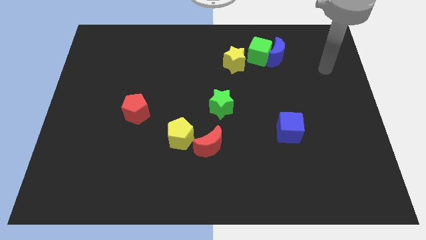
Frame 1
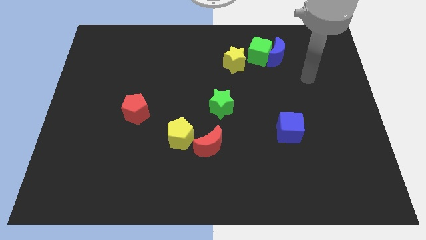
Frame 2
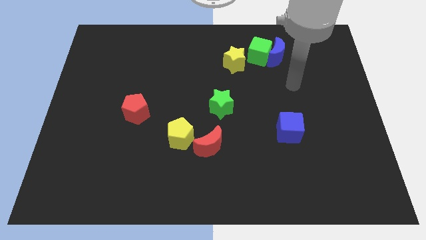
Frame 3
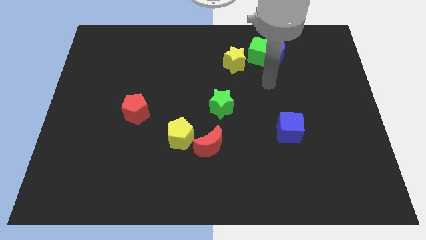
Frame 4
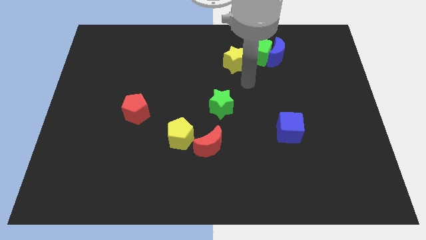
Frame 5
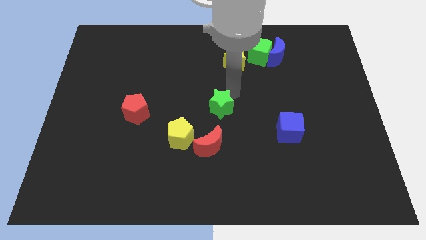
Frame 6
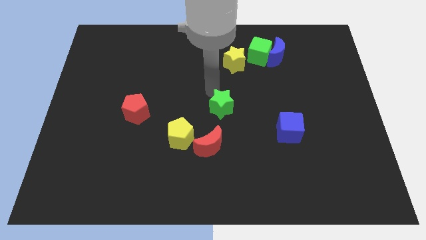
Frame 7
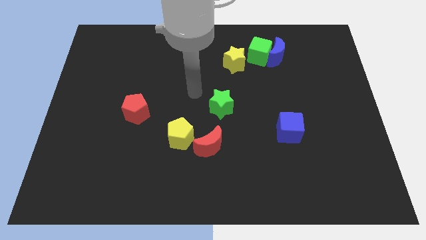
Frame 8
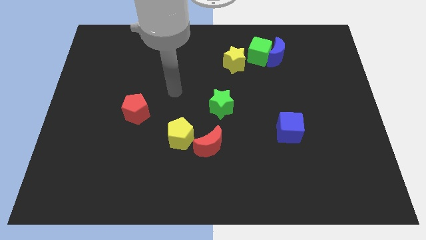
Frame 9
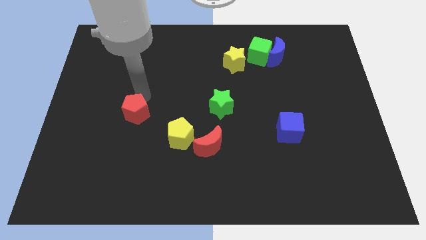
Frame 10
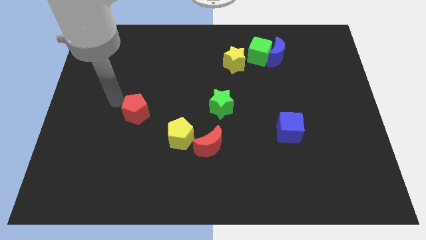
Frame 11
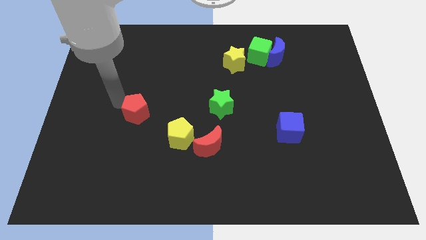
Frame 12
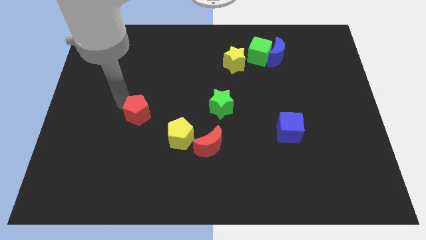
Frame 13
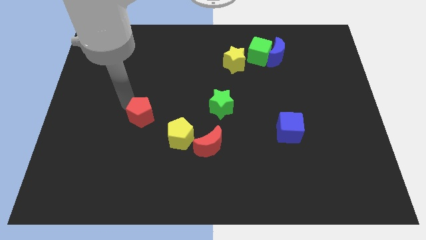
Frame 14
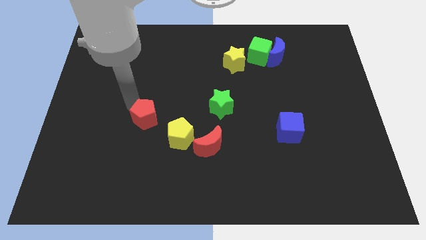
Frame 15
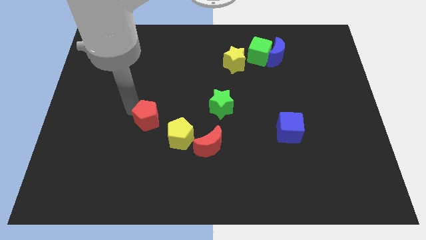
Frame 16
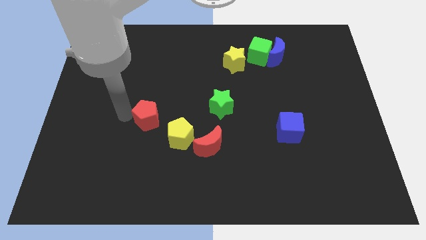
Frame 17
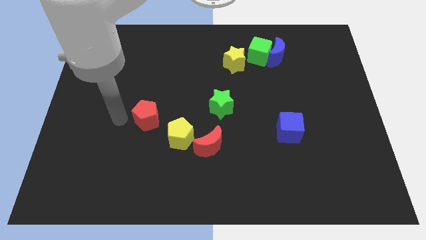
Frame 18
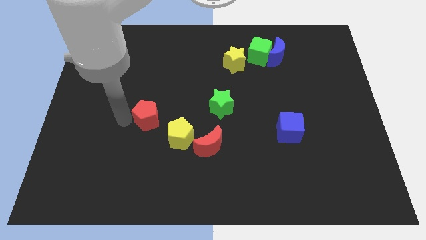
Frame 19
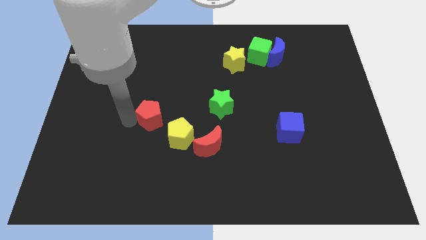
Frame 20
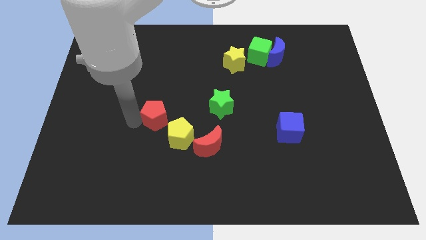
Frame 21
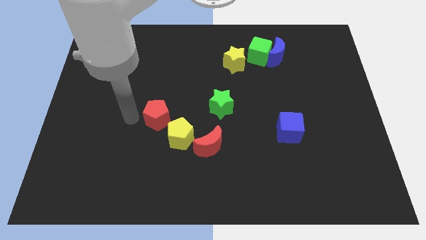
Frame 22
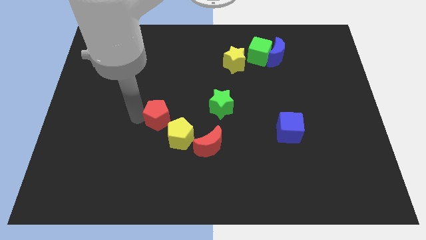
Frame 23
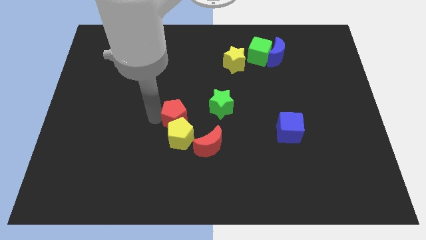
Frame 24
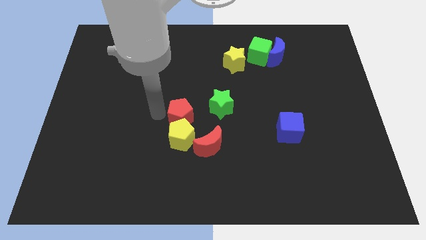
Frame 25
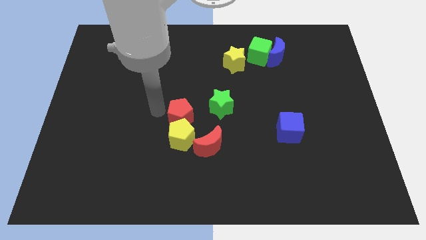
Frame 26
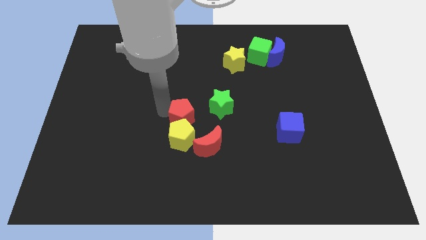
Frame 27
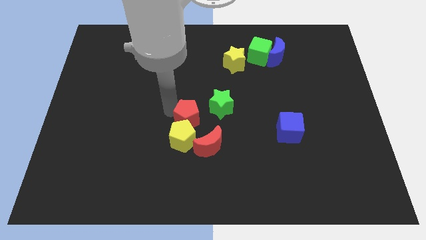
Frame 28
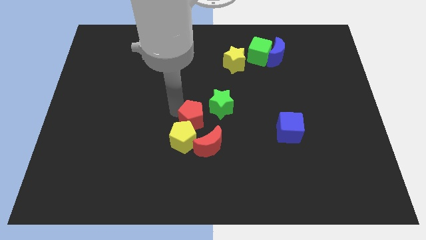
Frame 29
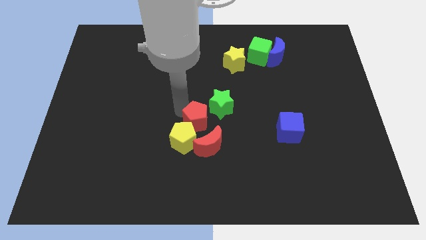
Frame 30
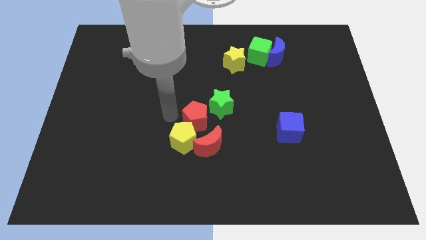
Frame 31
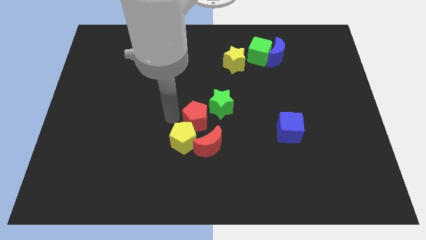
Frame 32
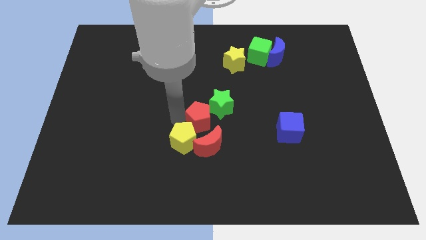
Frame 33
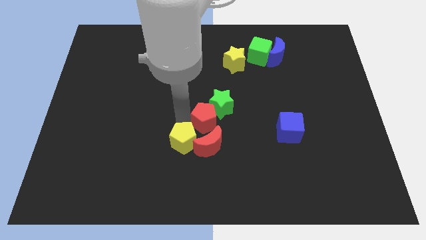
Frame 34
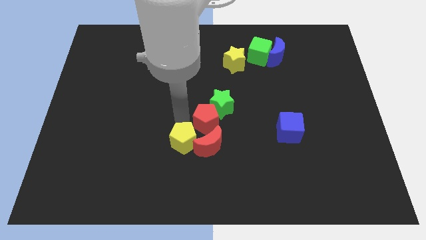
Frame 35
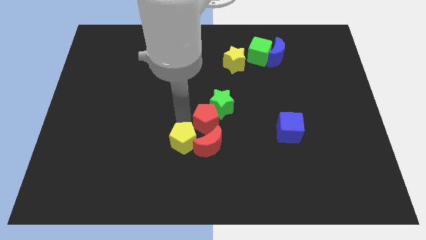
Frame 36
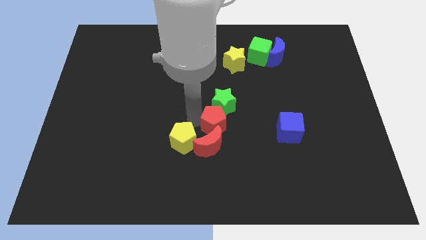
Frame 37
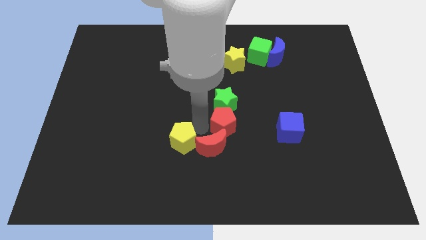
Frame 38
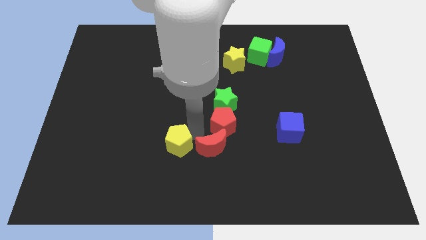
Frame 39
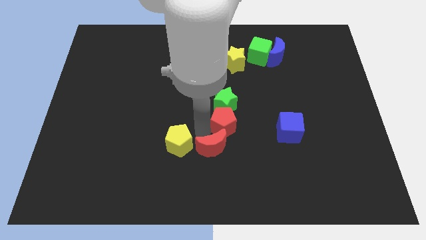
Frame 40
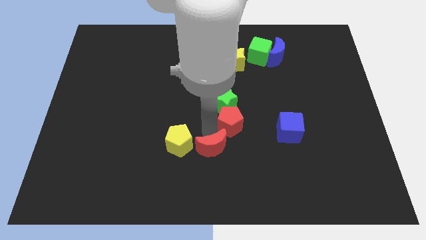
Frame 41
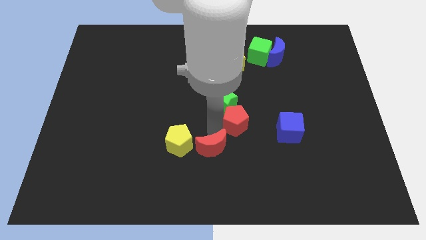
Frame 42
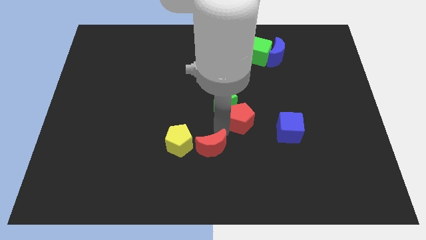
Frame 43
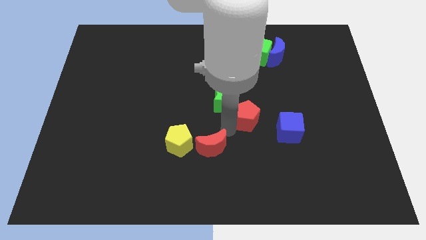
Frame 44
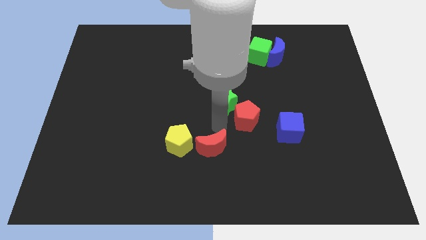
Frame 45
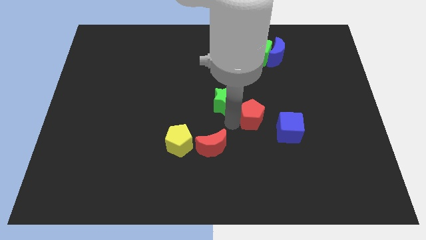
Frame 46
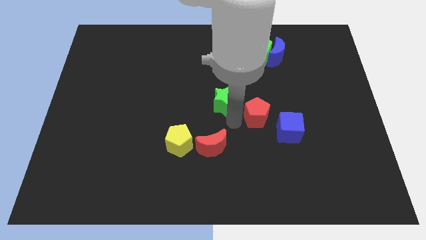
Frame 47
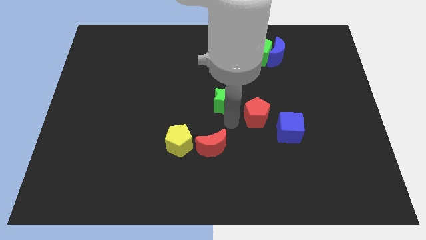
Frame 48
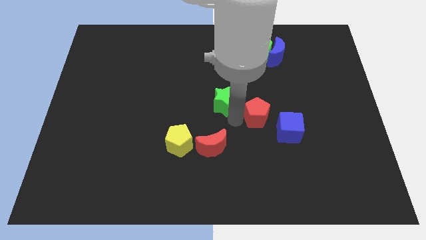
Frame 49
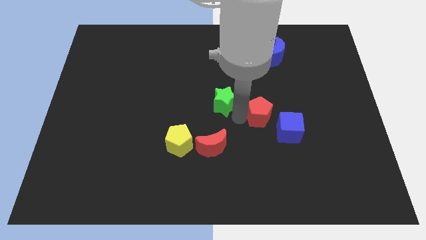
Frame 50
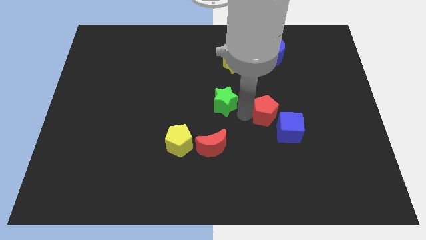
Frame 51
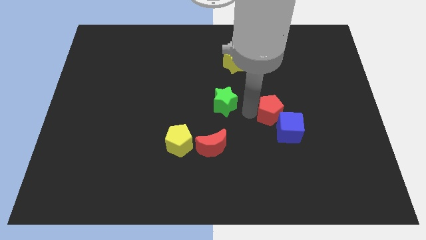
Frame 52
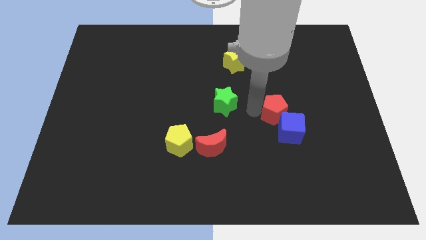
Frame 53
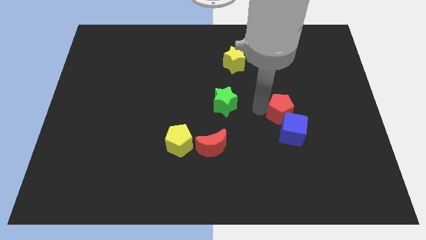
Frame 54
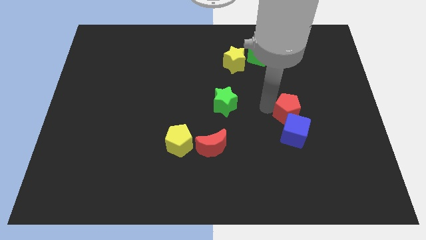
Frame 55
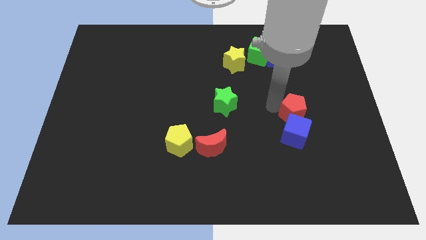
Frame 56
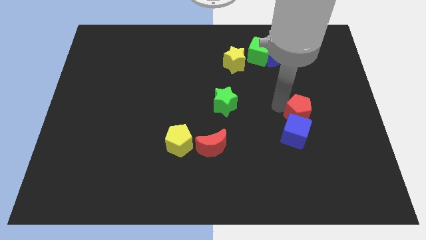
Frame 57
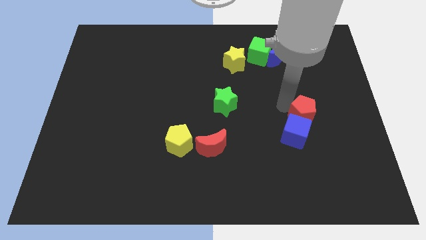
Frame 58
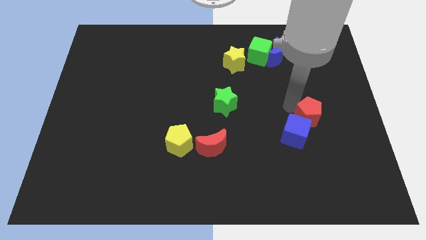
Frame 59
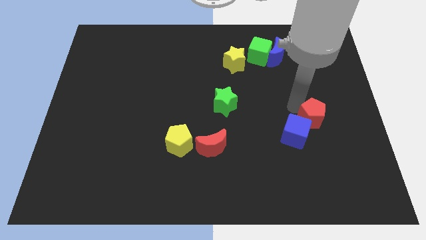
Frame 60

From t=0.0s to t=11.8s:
slide the red pentagon right of the blue cube

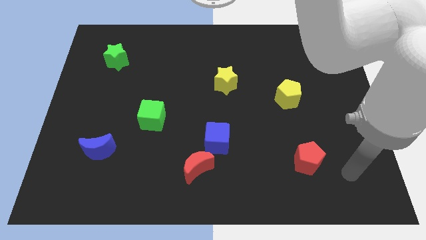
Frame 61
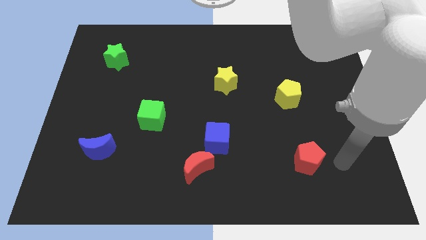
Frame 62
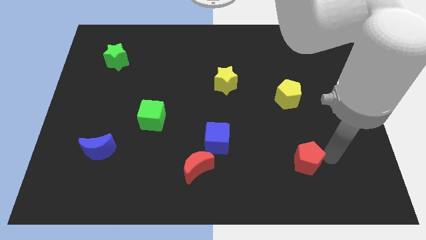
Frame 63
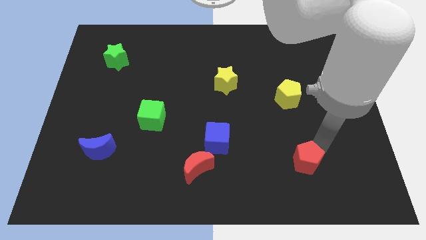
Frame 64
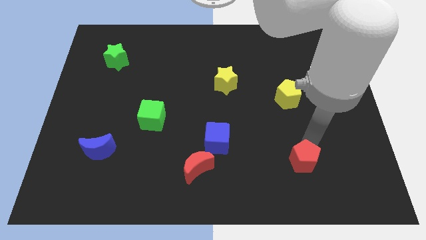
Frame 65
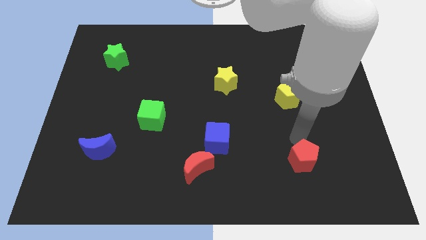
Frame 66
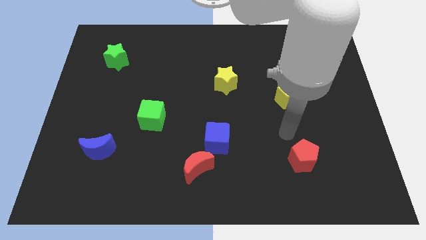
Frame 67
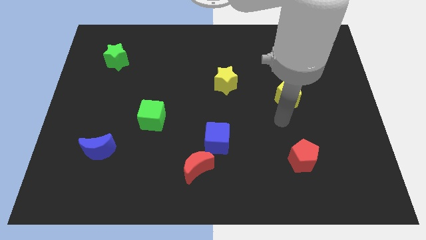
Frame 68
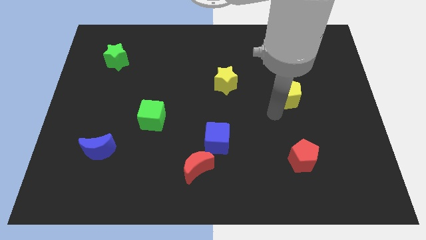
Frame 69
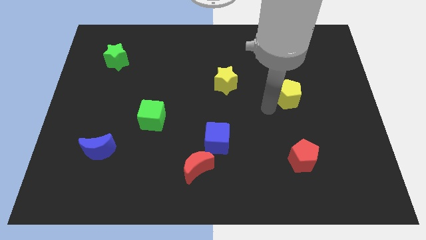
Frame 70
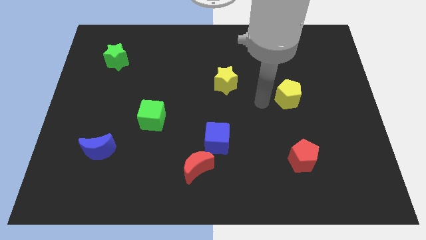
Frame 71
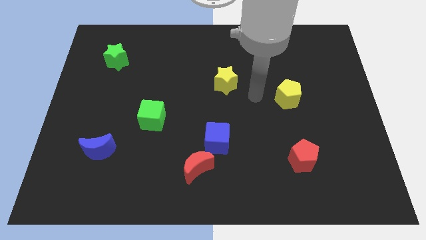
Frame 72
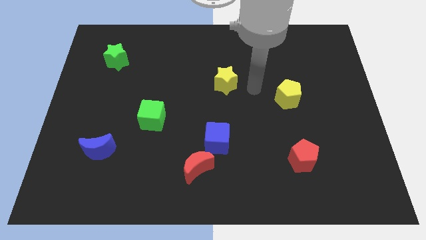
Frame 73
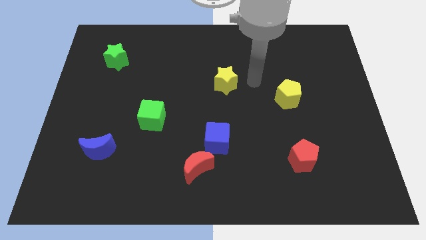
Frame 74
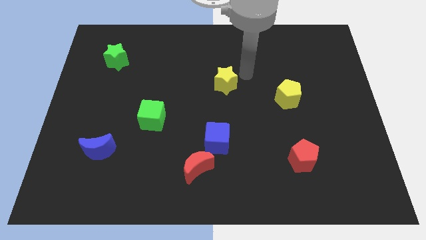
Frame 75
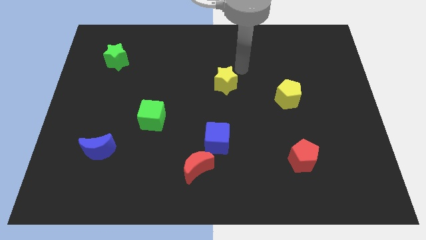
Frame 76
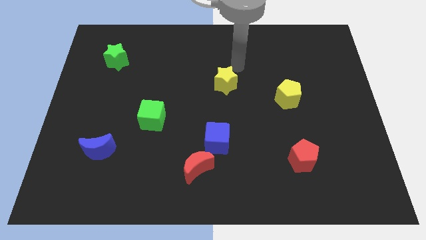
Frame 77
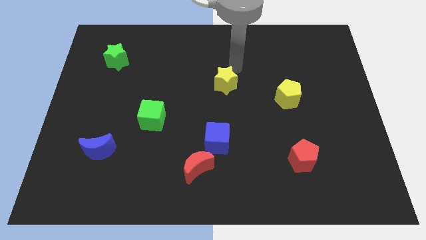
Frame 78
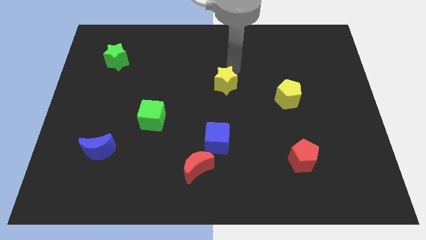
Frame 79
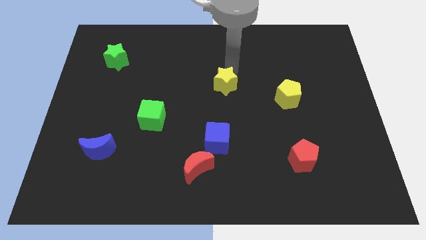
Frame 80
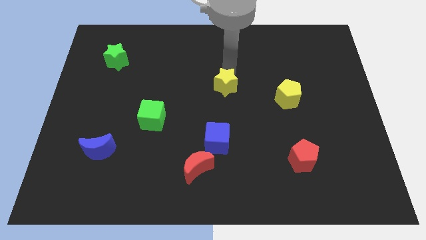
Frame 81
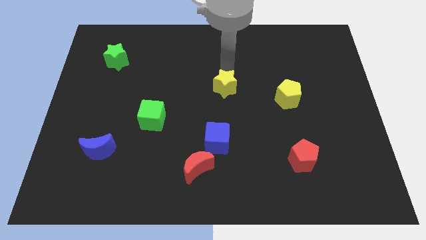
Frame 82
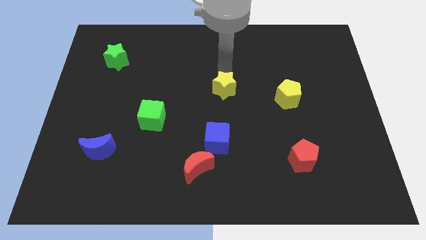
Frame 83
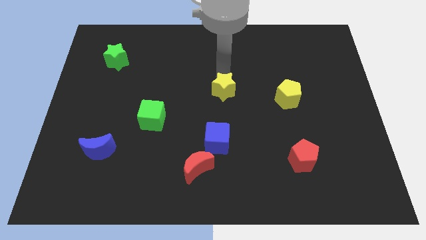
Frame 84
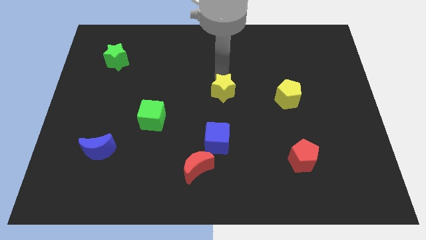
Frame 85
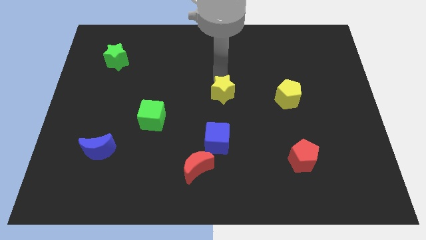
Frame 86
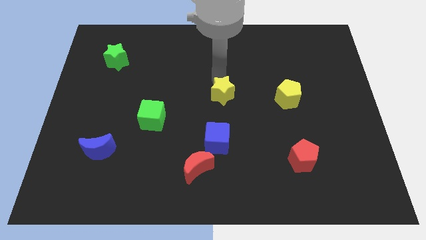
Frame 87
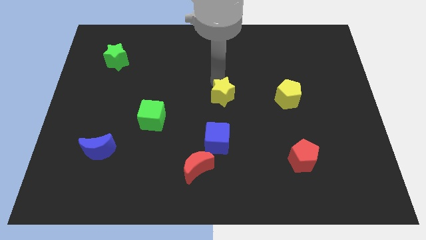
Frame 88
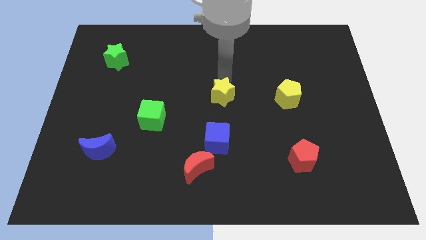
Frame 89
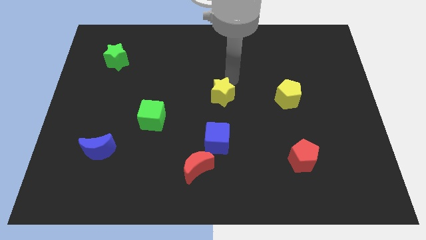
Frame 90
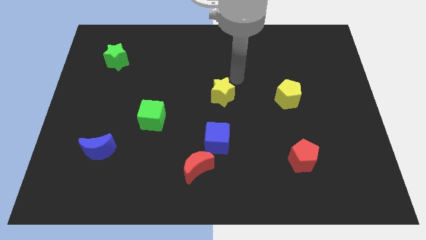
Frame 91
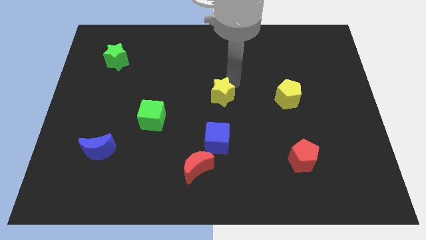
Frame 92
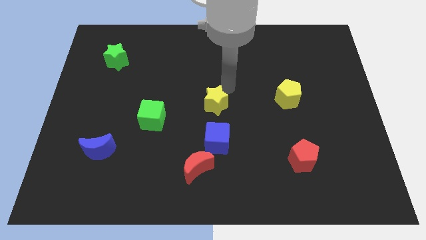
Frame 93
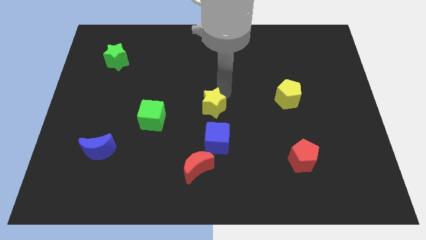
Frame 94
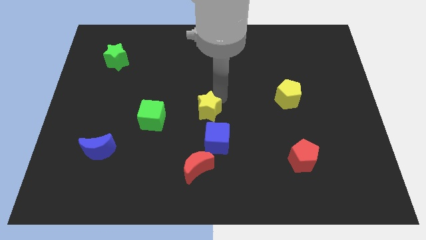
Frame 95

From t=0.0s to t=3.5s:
slide the yellow star to the top left side of the blue cube
